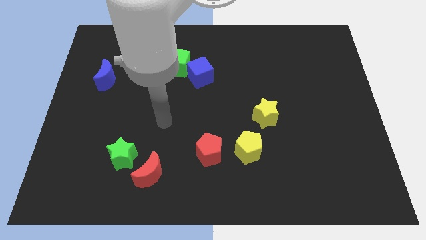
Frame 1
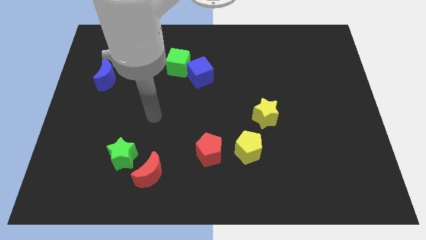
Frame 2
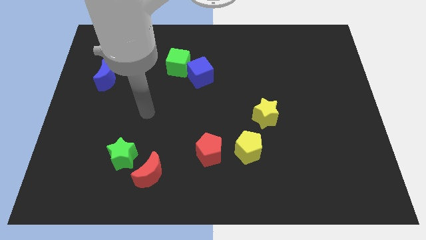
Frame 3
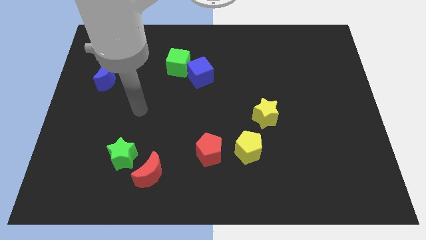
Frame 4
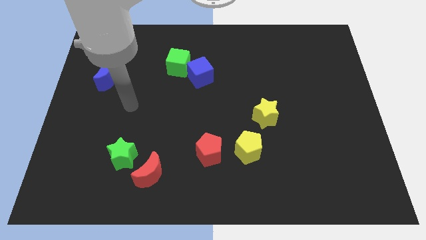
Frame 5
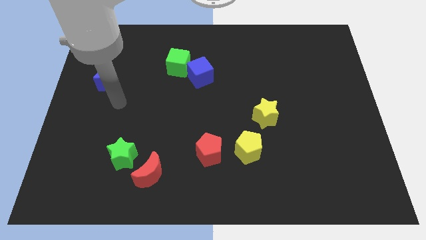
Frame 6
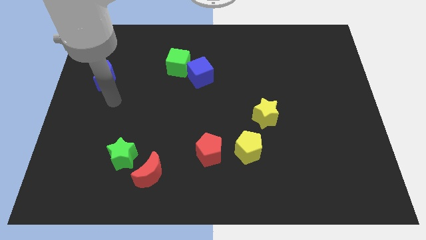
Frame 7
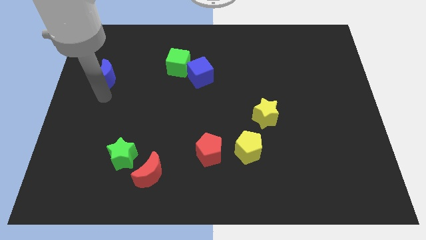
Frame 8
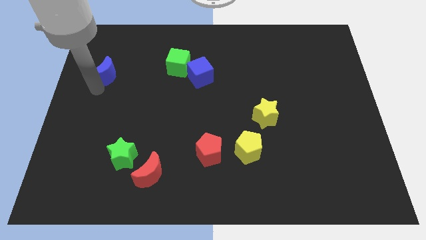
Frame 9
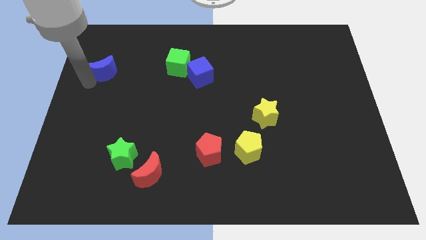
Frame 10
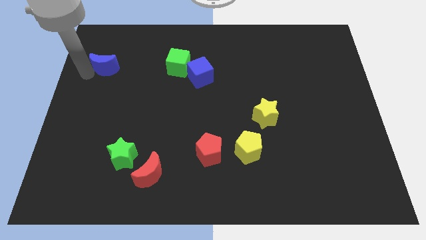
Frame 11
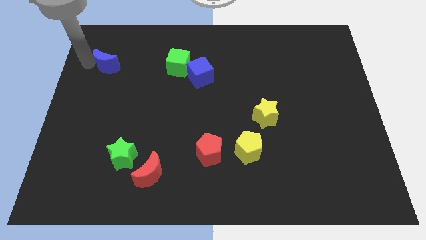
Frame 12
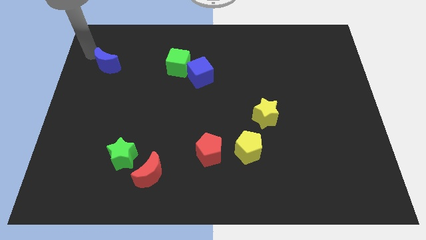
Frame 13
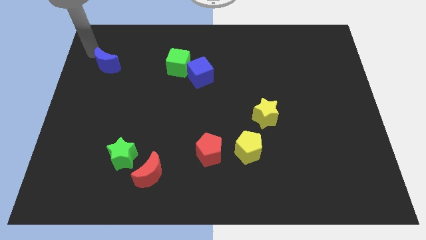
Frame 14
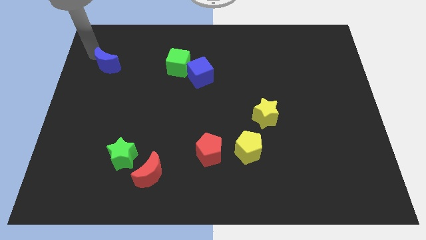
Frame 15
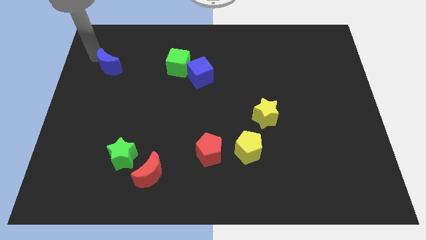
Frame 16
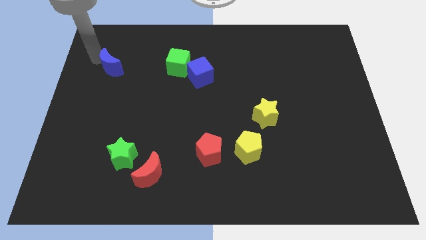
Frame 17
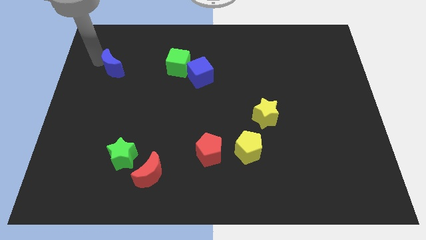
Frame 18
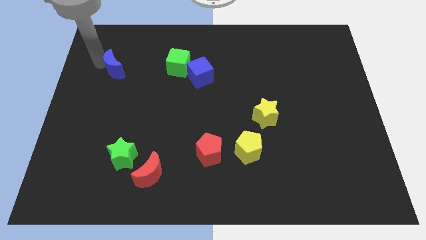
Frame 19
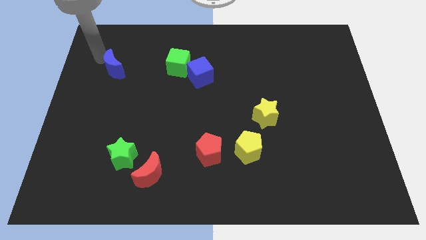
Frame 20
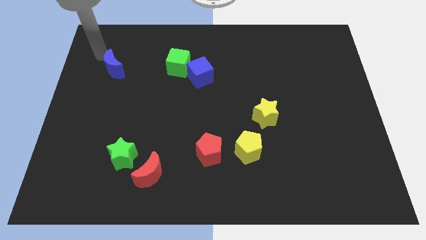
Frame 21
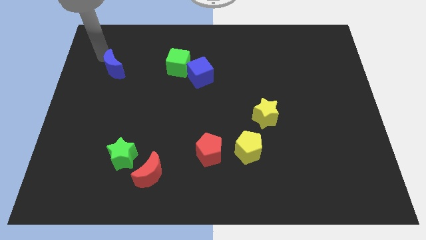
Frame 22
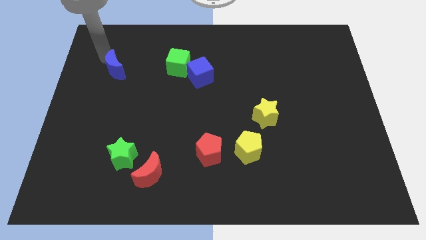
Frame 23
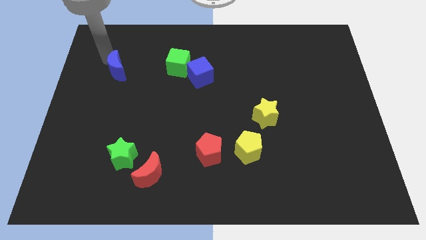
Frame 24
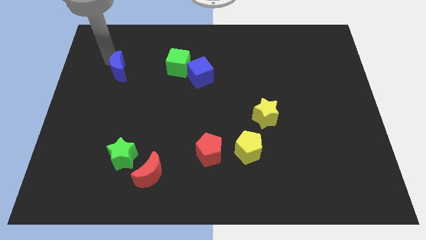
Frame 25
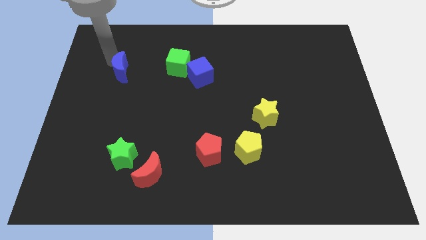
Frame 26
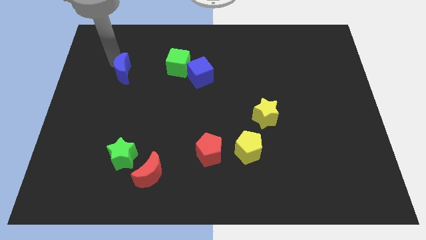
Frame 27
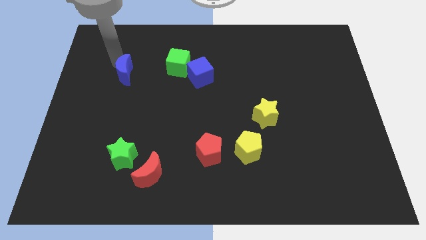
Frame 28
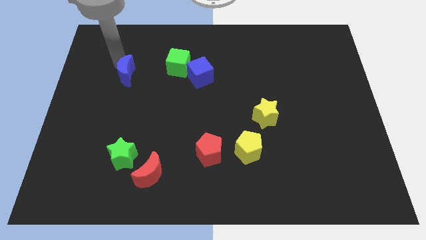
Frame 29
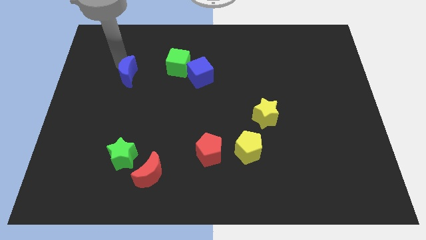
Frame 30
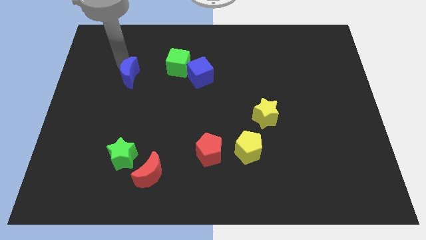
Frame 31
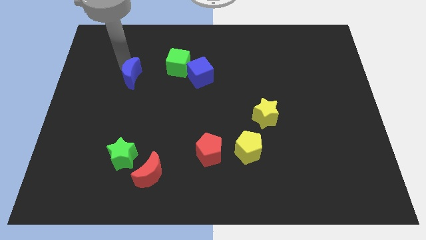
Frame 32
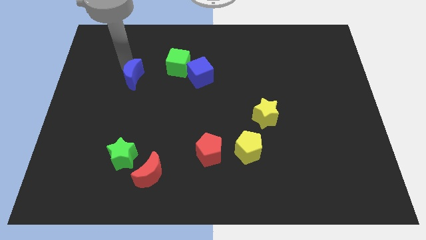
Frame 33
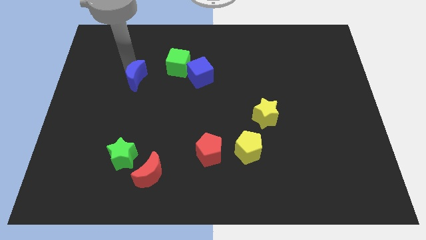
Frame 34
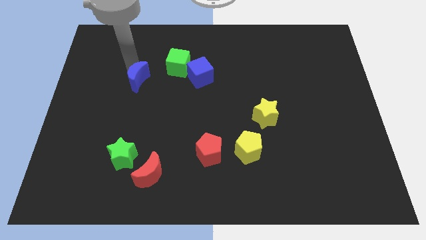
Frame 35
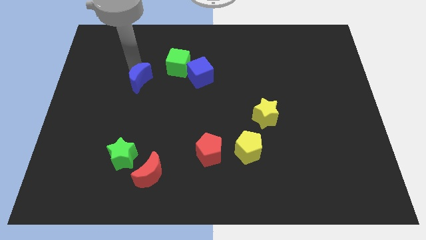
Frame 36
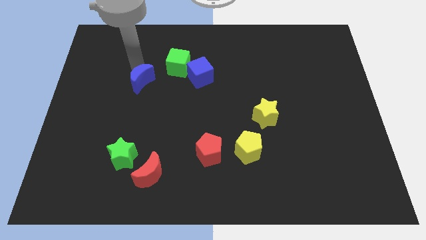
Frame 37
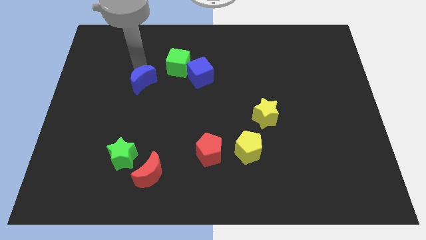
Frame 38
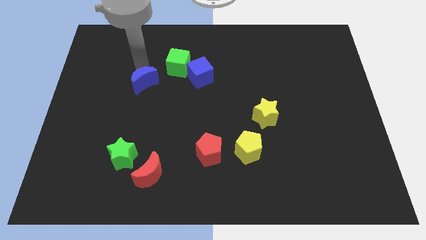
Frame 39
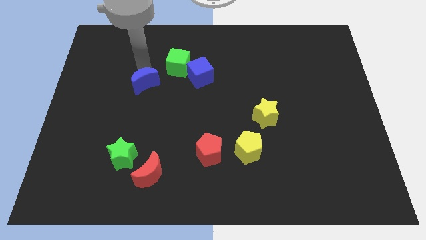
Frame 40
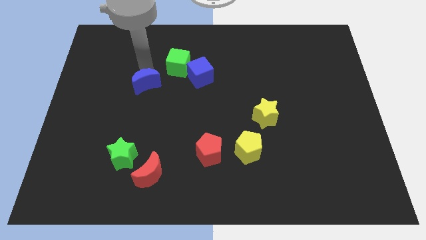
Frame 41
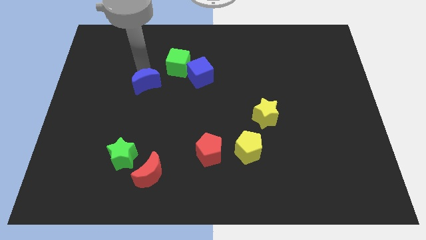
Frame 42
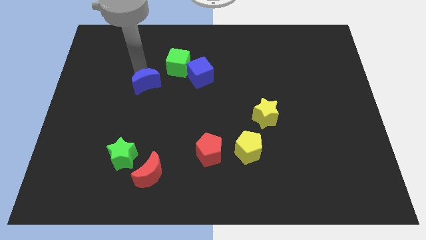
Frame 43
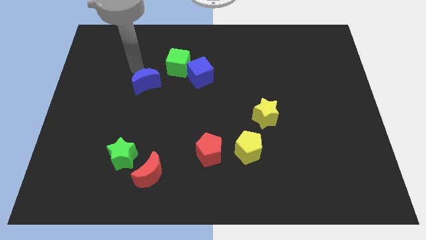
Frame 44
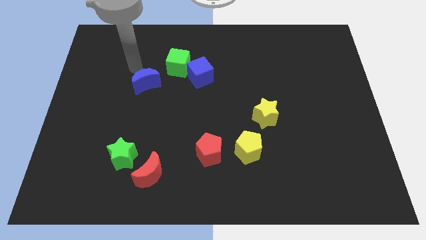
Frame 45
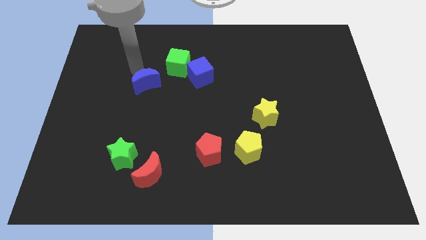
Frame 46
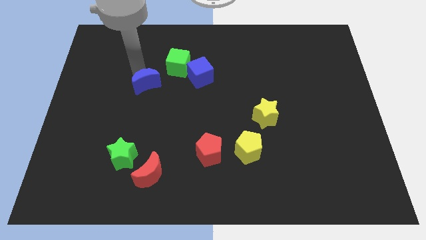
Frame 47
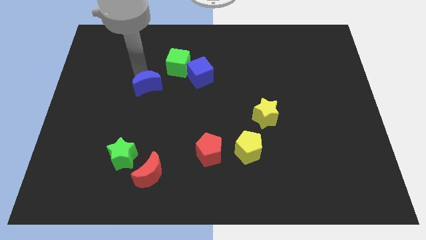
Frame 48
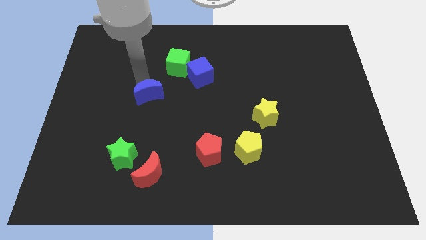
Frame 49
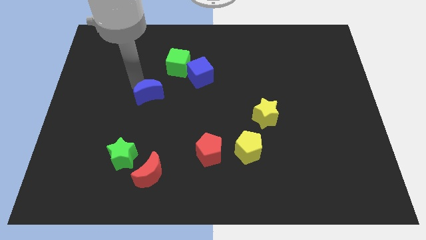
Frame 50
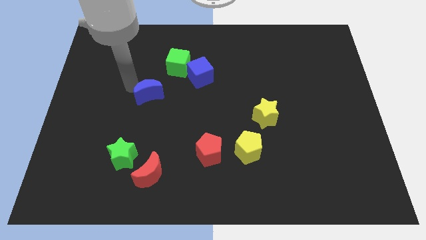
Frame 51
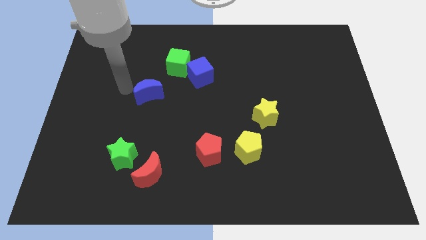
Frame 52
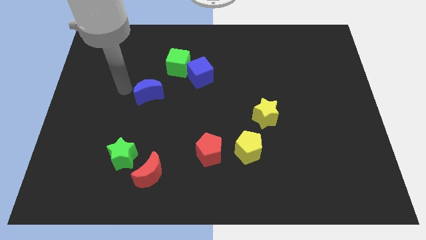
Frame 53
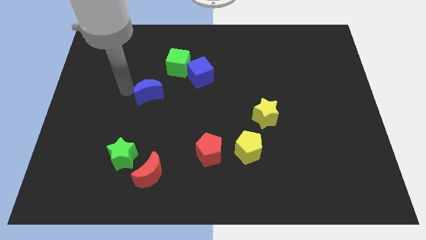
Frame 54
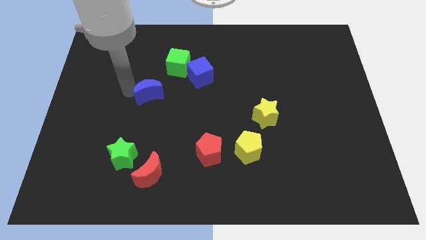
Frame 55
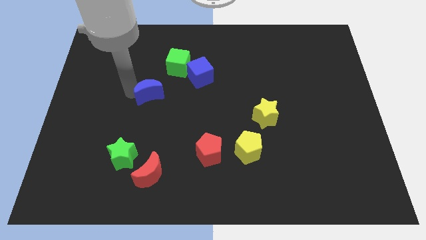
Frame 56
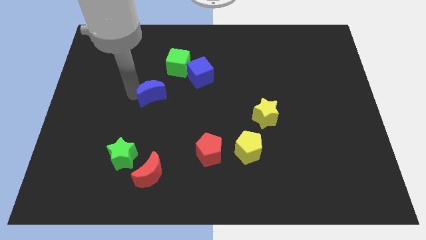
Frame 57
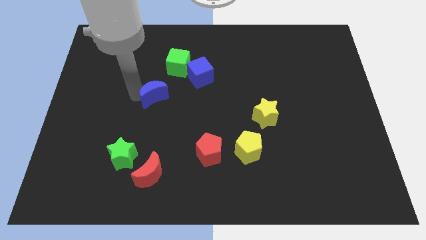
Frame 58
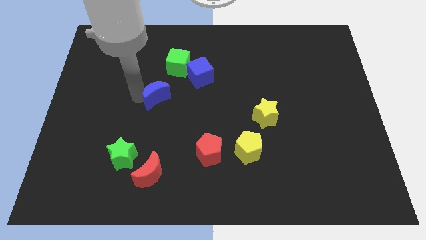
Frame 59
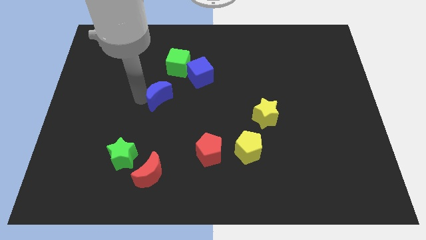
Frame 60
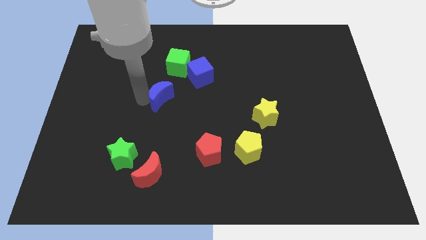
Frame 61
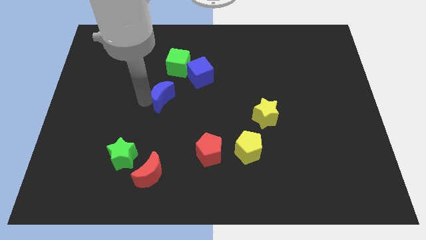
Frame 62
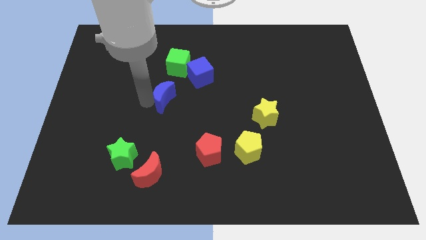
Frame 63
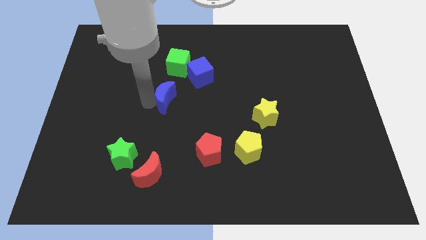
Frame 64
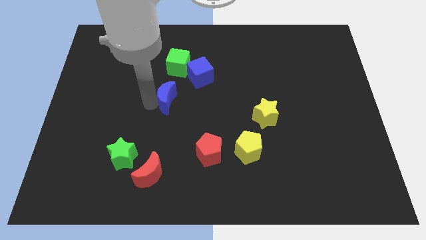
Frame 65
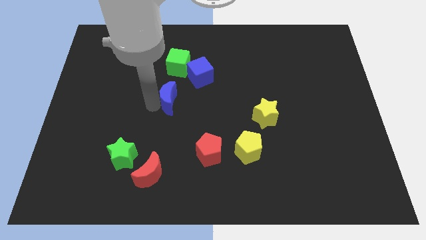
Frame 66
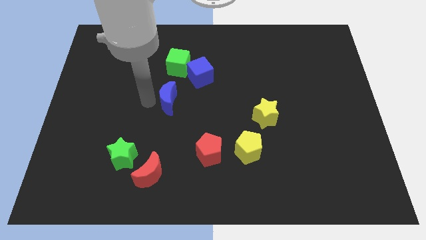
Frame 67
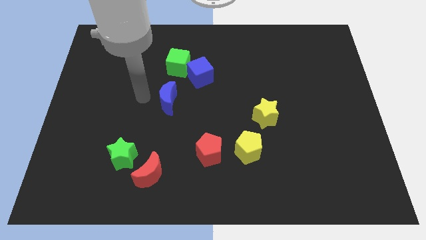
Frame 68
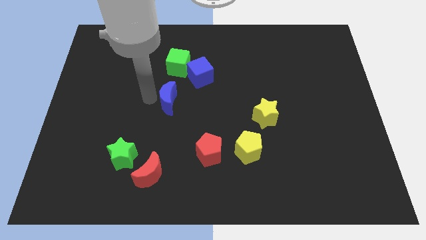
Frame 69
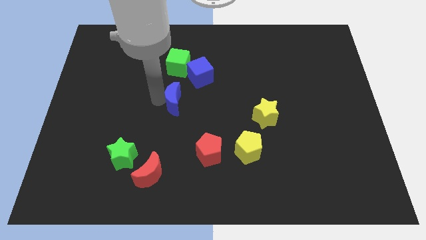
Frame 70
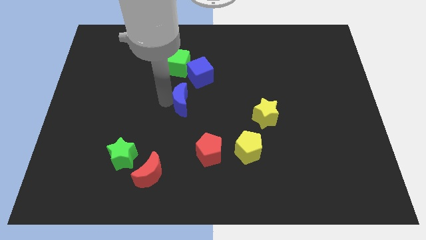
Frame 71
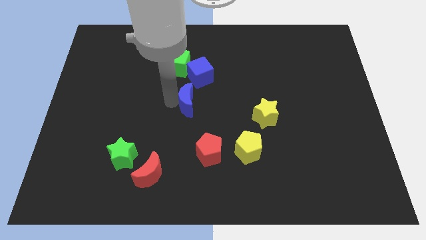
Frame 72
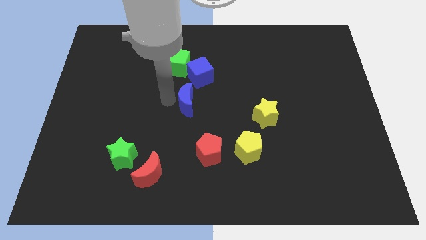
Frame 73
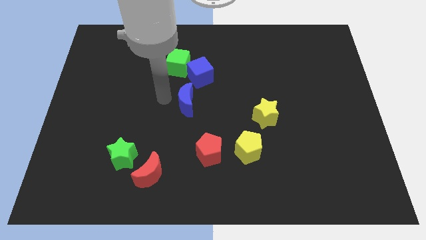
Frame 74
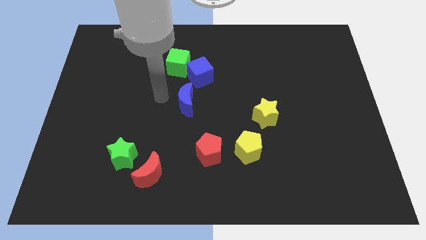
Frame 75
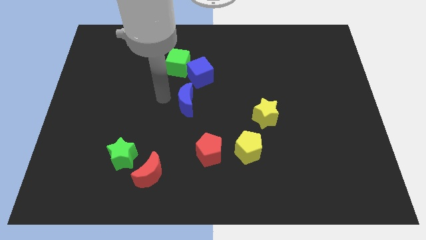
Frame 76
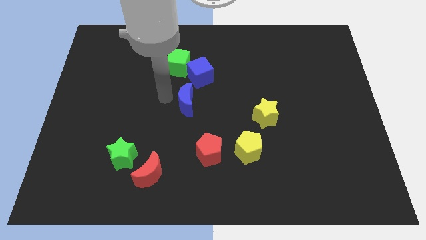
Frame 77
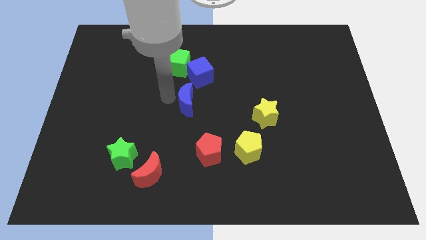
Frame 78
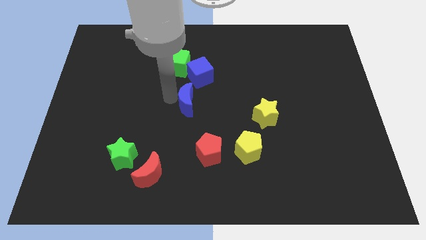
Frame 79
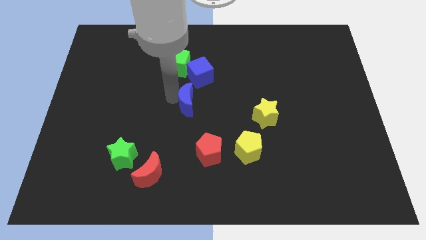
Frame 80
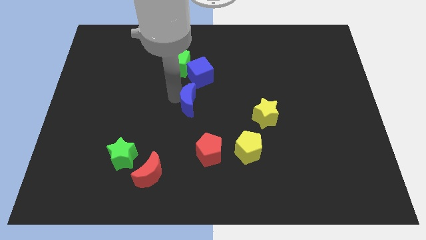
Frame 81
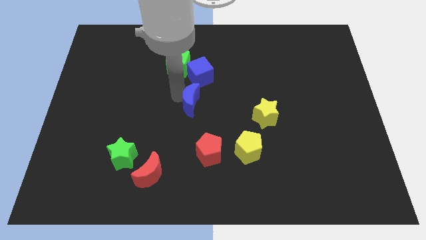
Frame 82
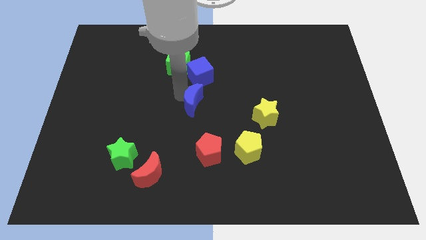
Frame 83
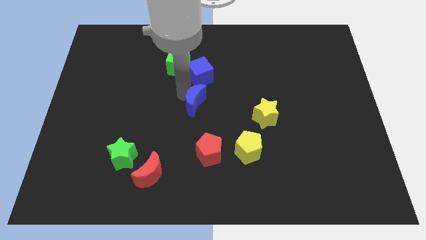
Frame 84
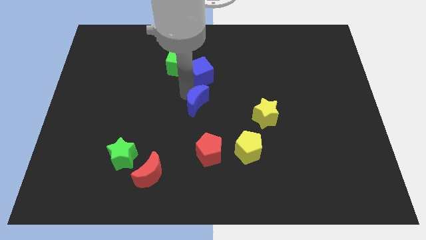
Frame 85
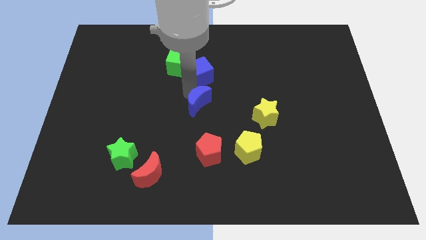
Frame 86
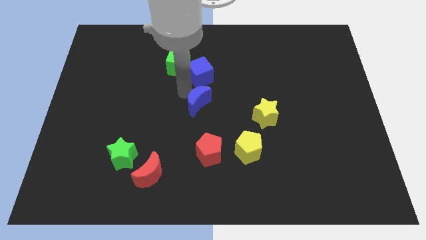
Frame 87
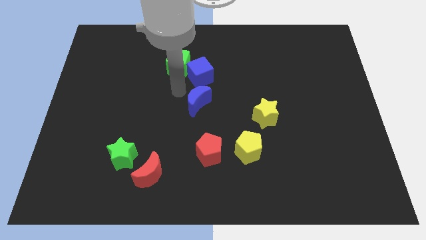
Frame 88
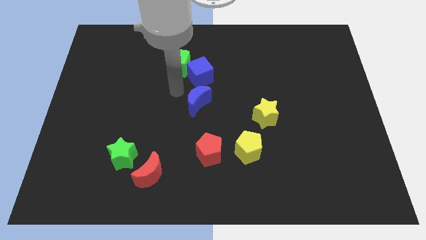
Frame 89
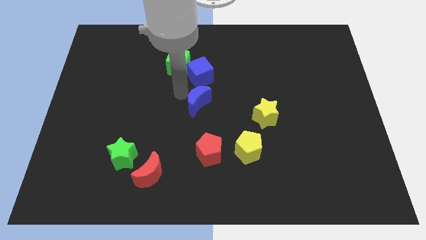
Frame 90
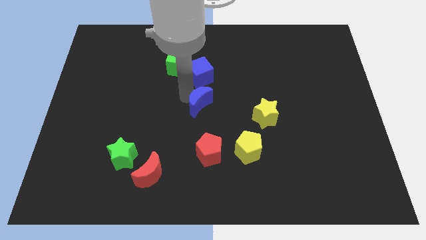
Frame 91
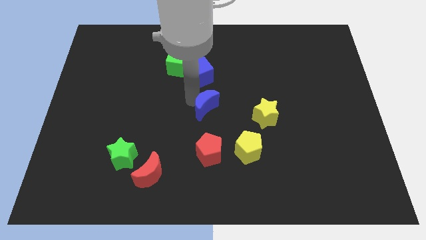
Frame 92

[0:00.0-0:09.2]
put the blue moon to the left side of the yellow star
